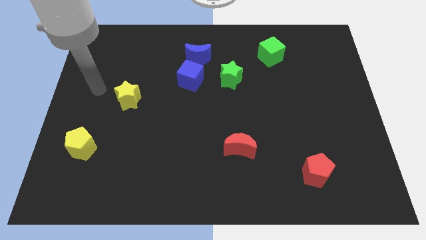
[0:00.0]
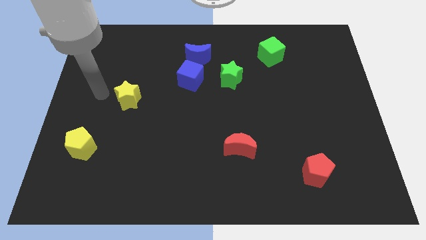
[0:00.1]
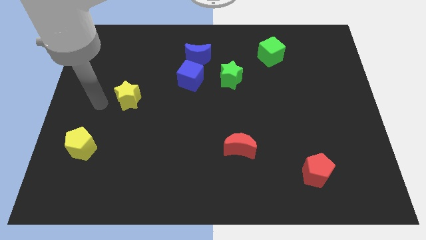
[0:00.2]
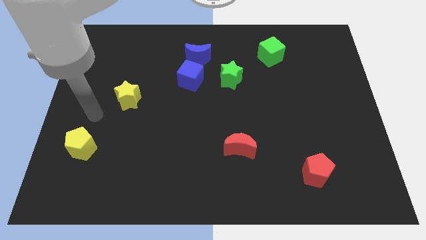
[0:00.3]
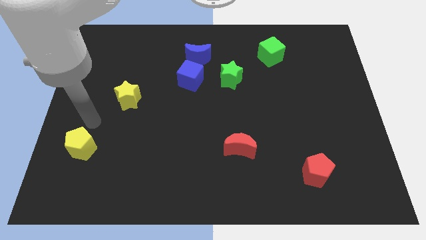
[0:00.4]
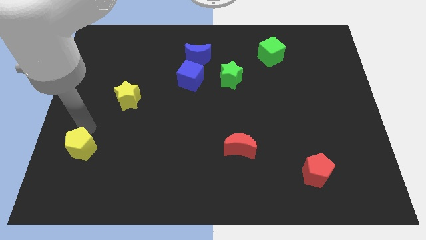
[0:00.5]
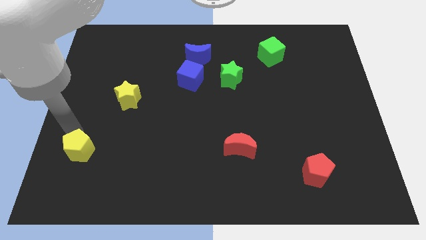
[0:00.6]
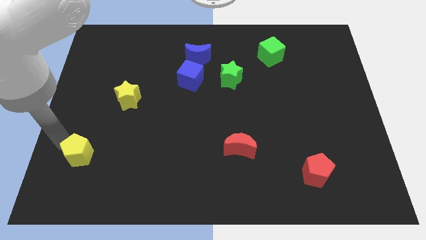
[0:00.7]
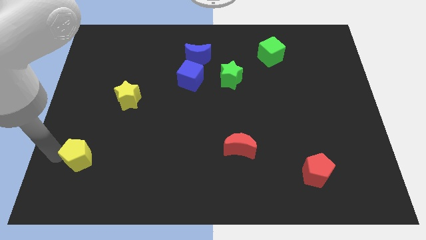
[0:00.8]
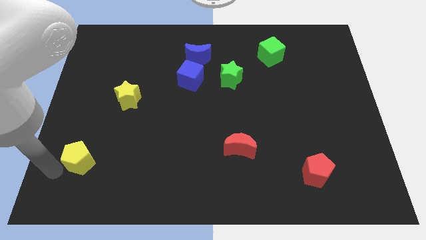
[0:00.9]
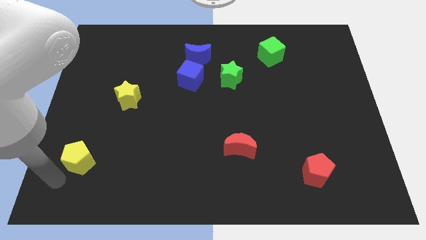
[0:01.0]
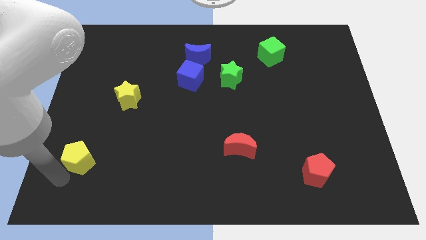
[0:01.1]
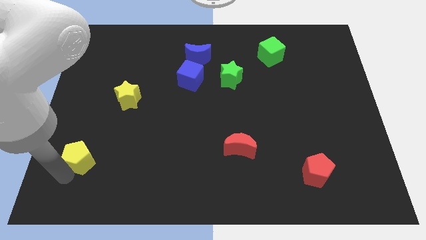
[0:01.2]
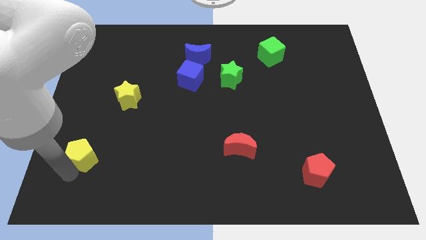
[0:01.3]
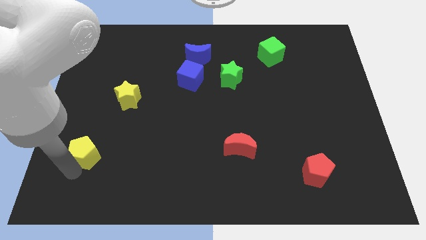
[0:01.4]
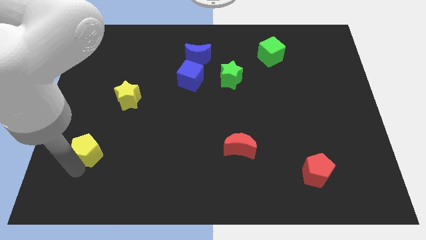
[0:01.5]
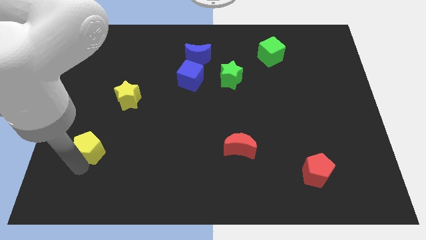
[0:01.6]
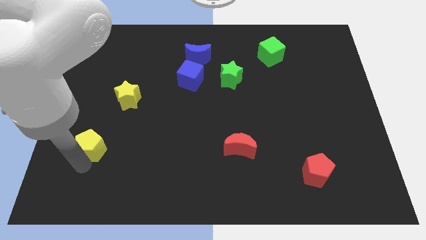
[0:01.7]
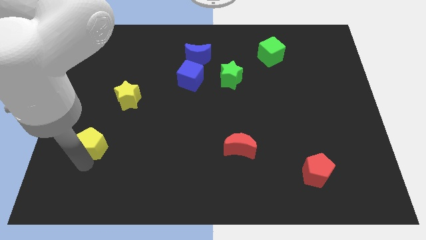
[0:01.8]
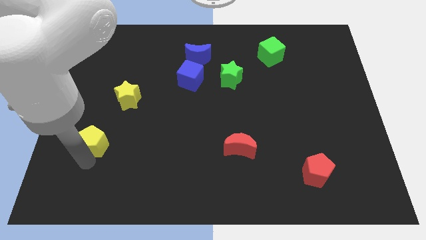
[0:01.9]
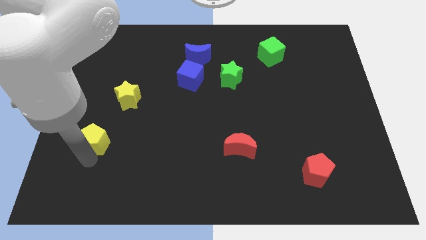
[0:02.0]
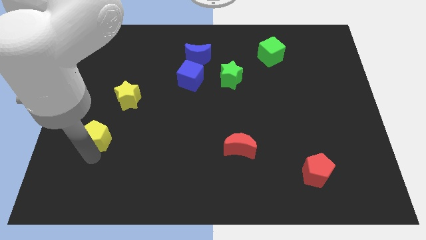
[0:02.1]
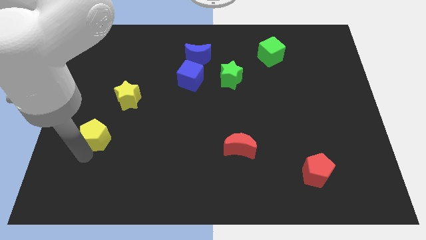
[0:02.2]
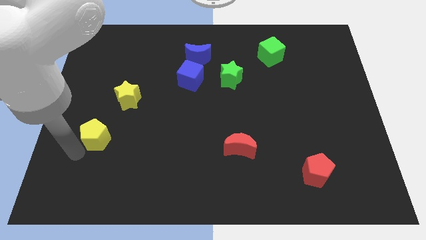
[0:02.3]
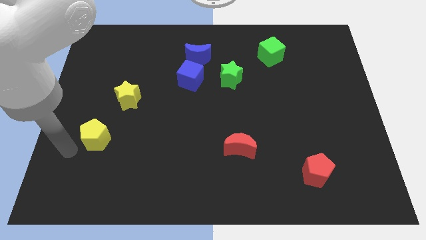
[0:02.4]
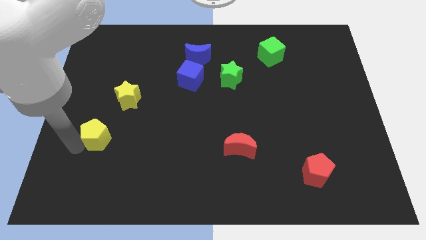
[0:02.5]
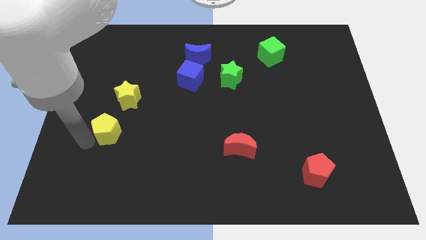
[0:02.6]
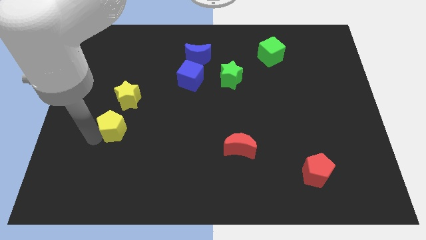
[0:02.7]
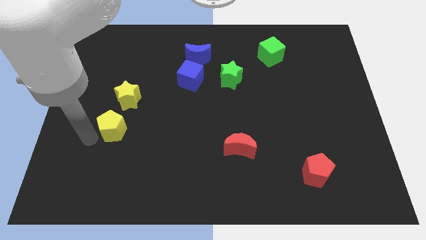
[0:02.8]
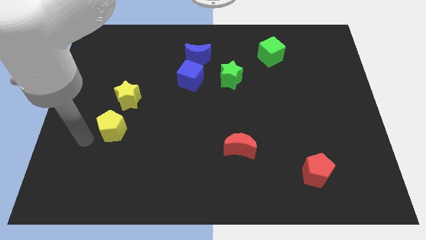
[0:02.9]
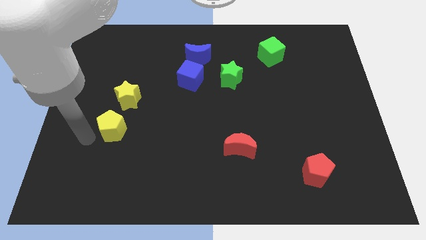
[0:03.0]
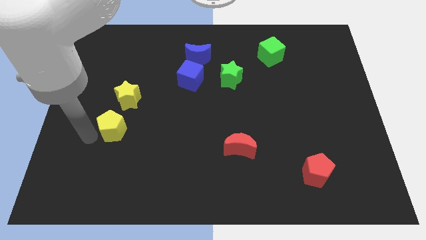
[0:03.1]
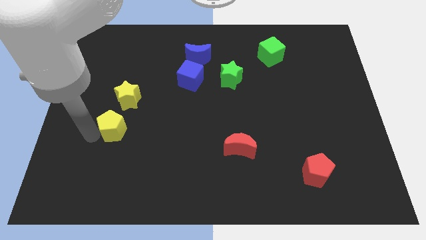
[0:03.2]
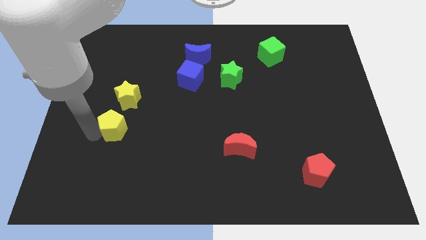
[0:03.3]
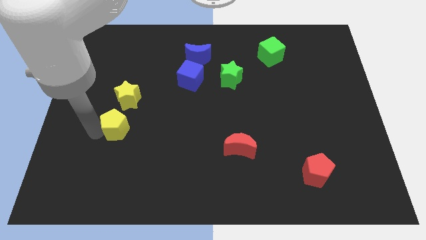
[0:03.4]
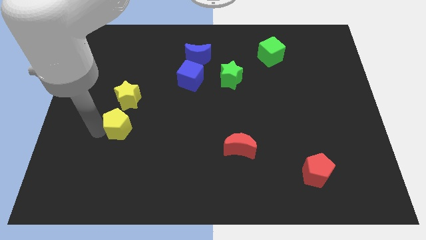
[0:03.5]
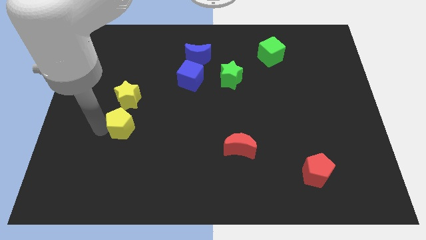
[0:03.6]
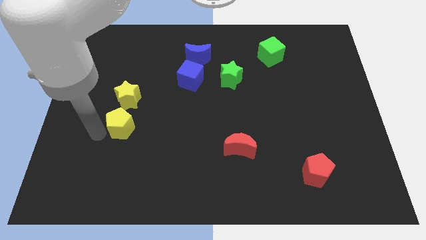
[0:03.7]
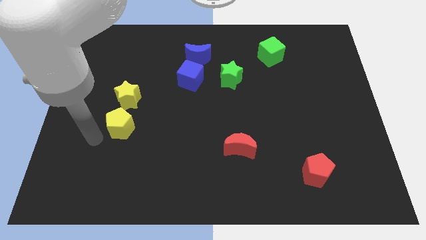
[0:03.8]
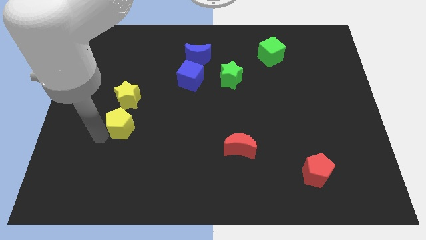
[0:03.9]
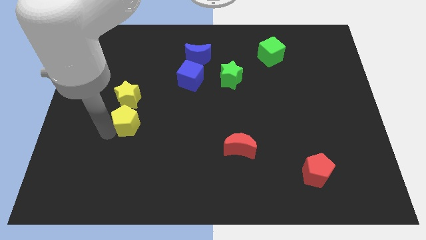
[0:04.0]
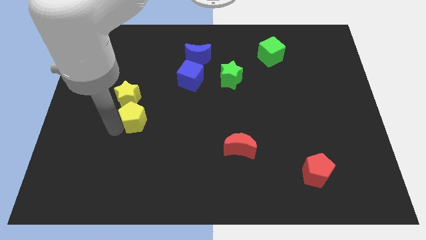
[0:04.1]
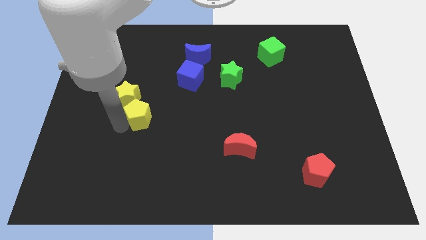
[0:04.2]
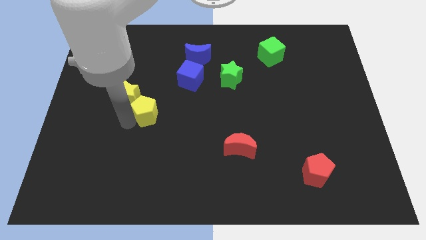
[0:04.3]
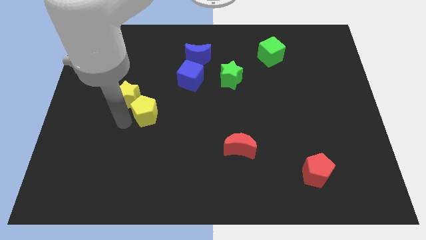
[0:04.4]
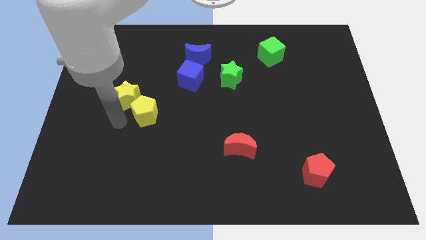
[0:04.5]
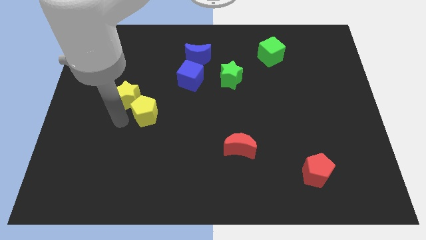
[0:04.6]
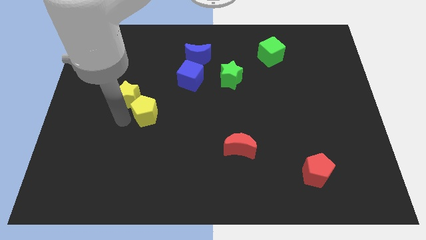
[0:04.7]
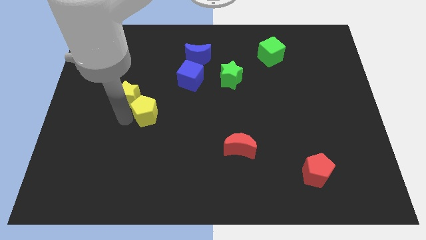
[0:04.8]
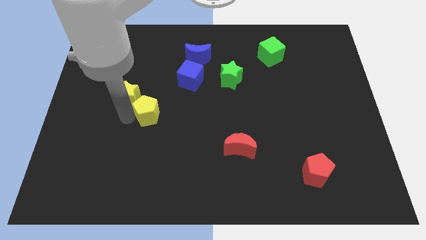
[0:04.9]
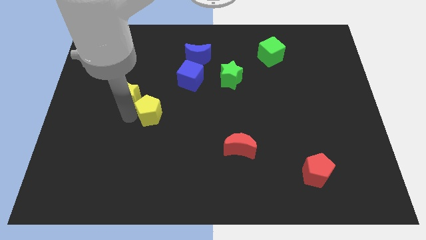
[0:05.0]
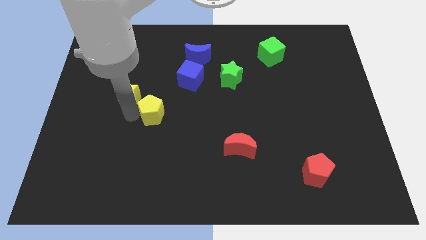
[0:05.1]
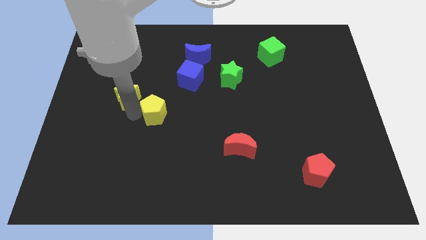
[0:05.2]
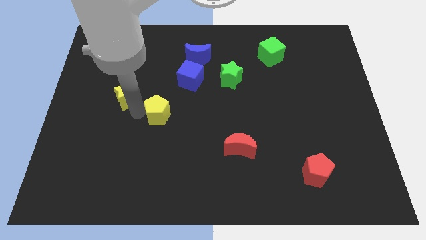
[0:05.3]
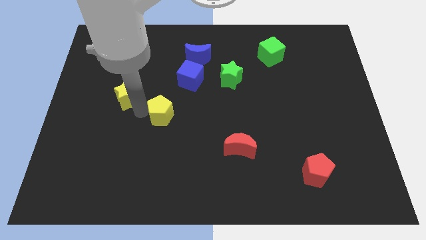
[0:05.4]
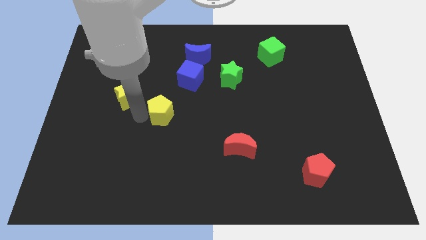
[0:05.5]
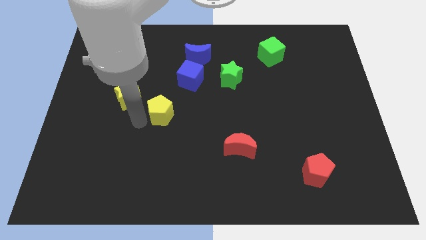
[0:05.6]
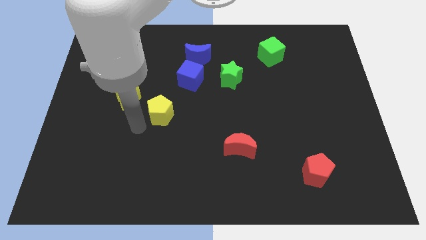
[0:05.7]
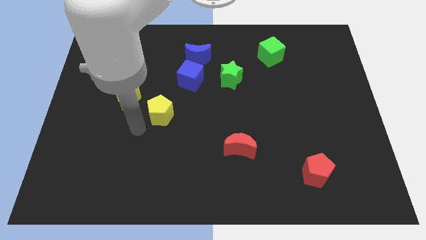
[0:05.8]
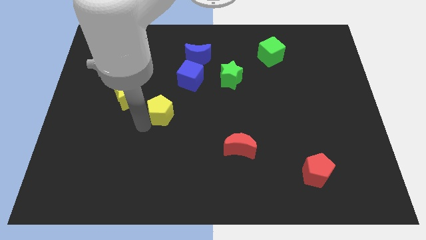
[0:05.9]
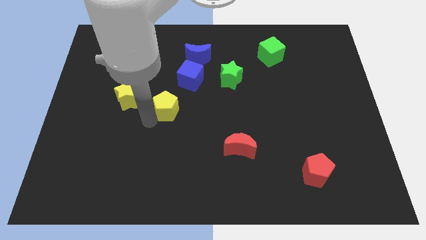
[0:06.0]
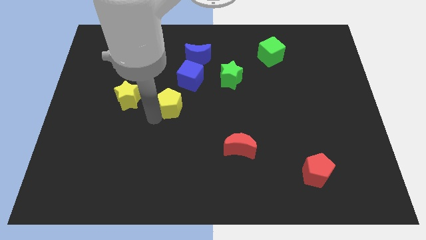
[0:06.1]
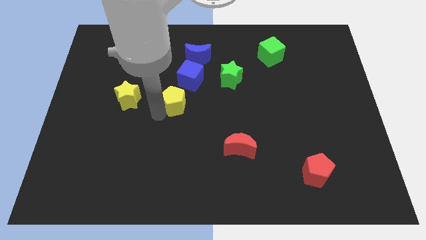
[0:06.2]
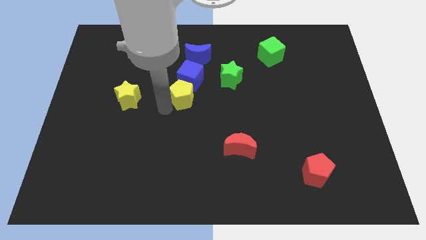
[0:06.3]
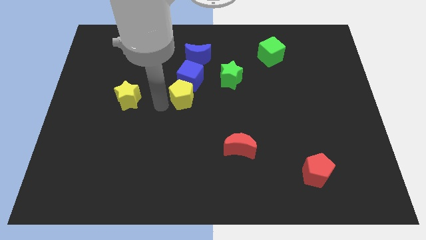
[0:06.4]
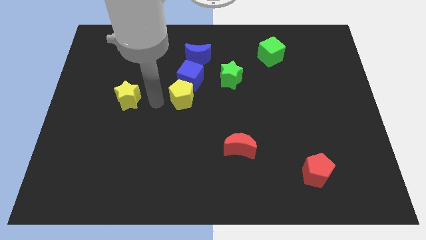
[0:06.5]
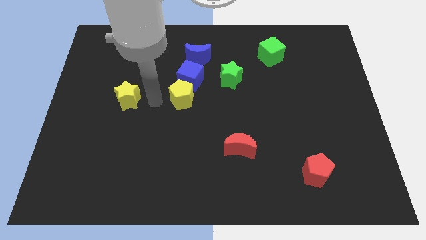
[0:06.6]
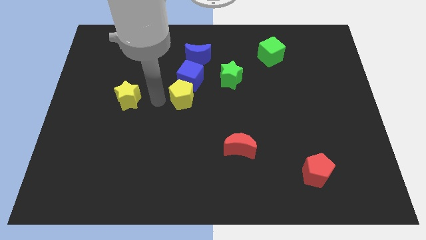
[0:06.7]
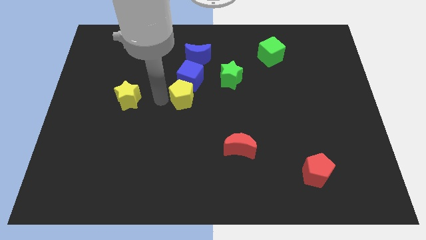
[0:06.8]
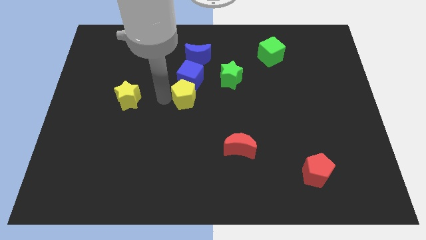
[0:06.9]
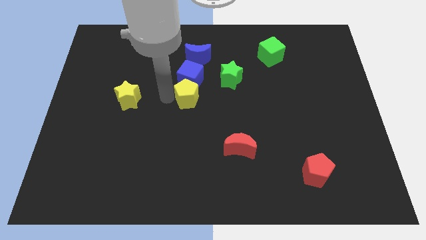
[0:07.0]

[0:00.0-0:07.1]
put the yellow pentagon to the bottom left of the green star
